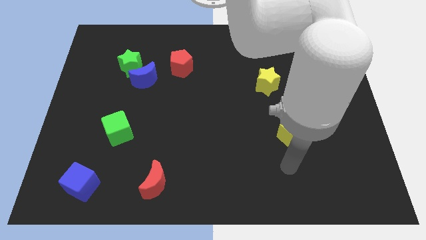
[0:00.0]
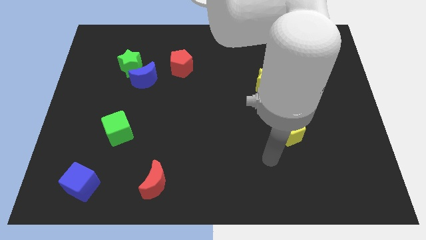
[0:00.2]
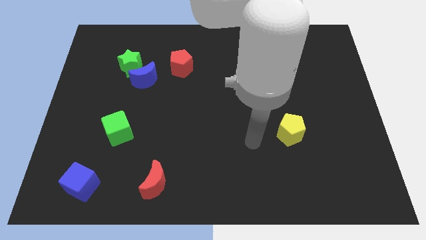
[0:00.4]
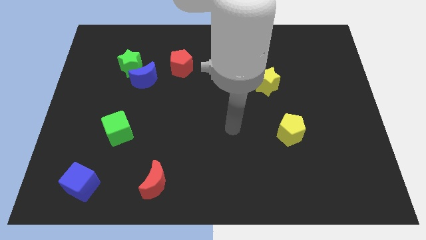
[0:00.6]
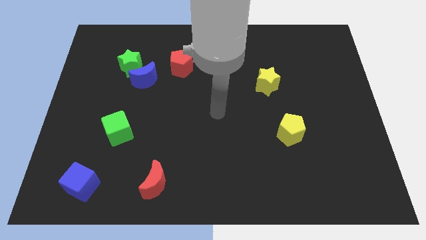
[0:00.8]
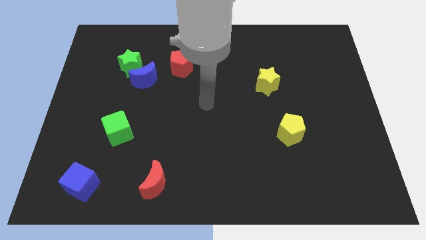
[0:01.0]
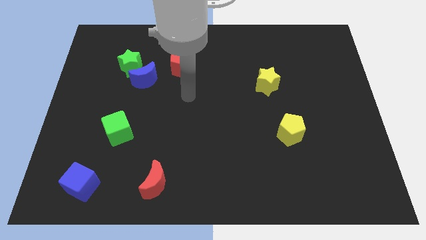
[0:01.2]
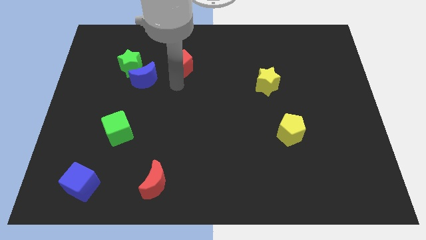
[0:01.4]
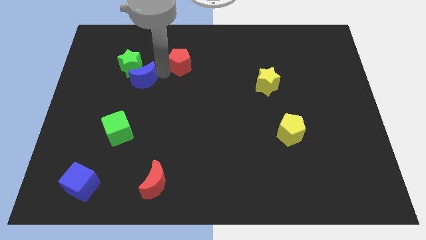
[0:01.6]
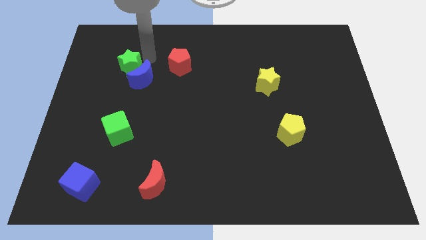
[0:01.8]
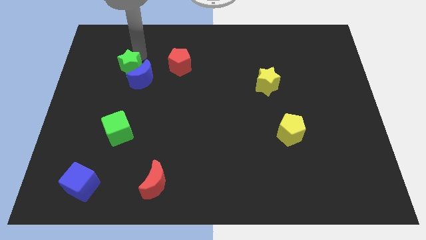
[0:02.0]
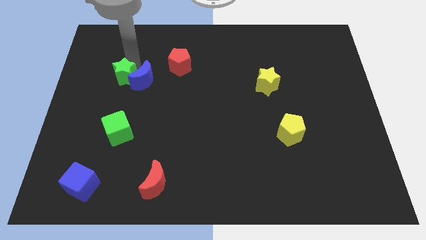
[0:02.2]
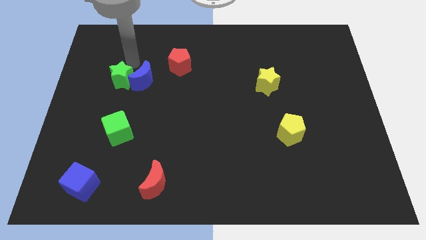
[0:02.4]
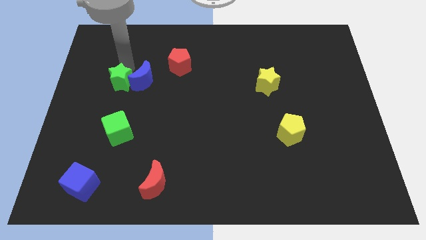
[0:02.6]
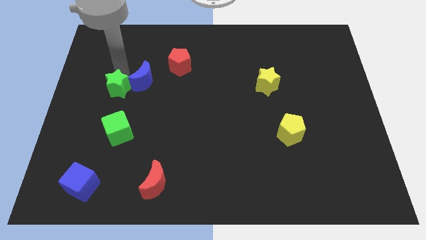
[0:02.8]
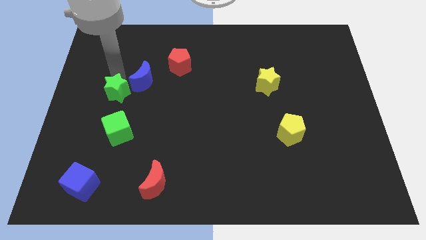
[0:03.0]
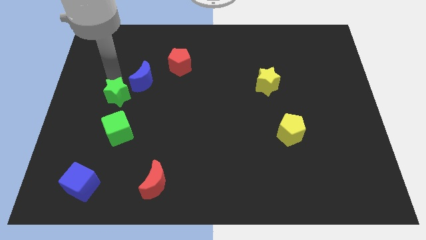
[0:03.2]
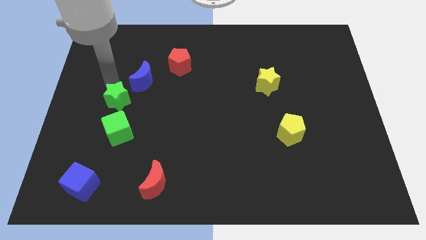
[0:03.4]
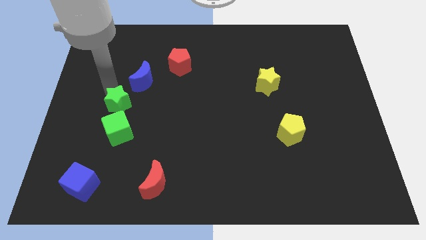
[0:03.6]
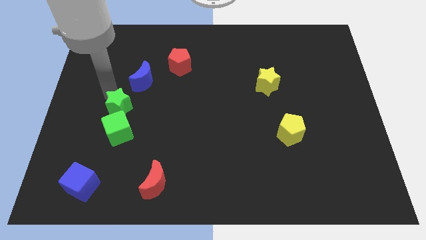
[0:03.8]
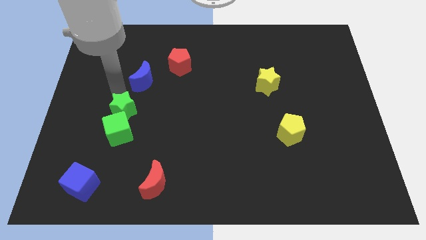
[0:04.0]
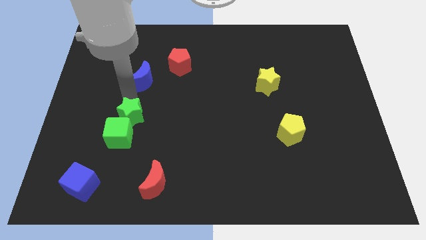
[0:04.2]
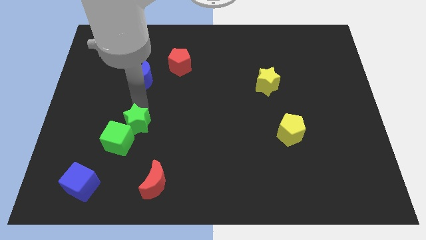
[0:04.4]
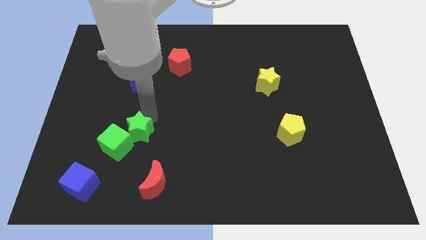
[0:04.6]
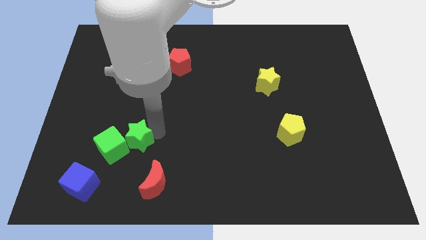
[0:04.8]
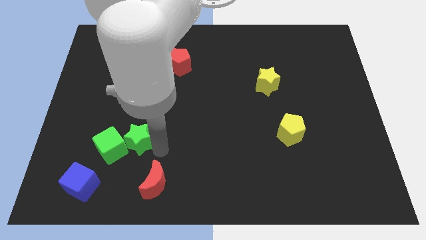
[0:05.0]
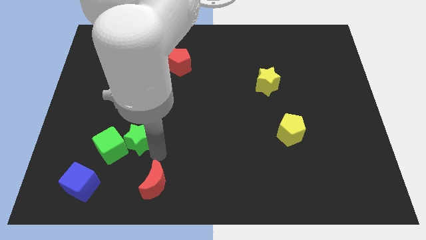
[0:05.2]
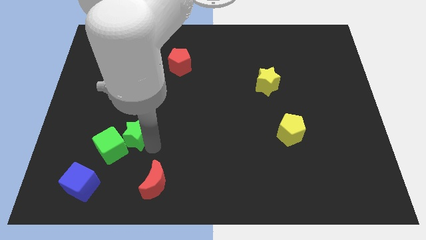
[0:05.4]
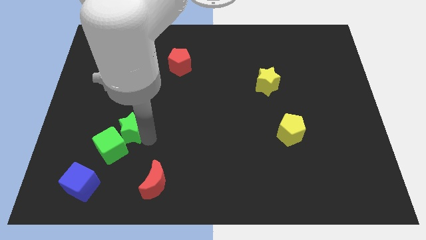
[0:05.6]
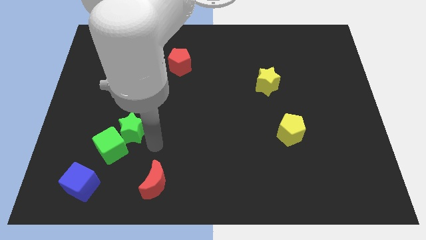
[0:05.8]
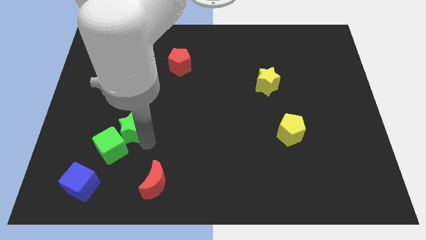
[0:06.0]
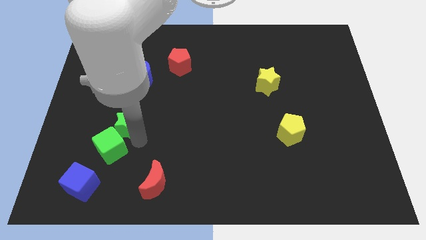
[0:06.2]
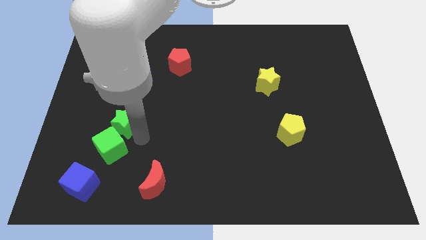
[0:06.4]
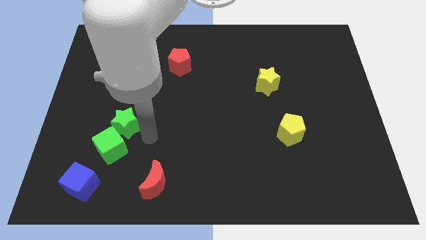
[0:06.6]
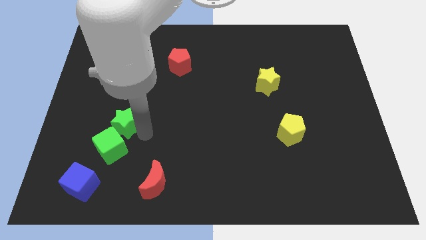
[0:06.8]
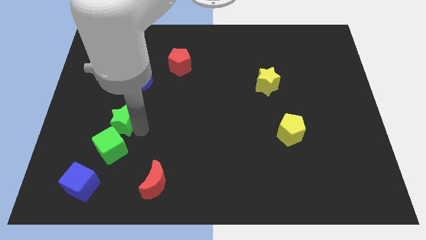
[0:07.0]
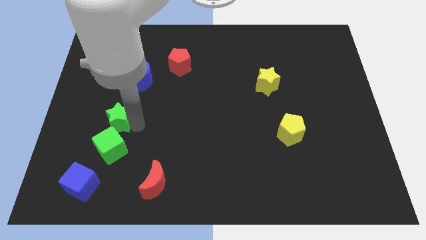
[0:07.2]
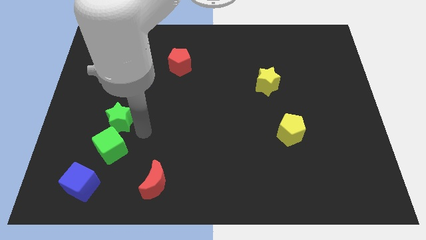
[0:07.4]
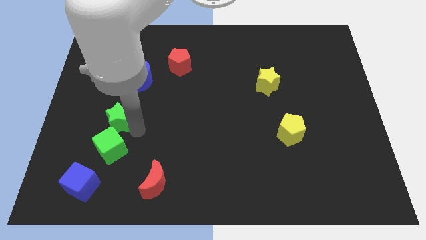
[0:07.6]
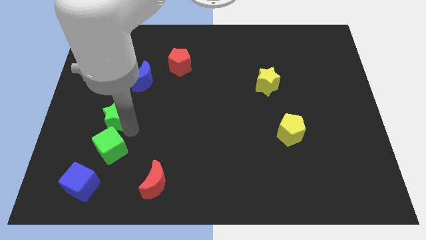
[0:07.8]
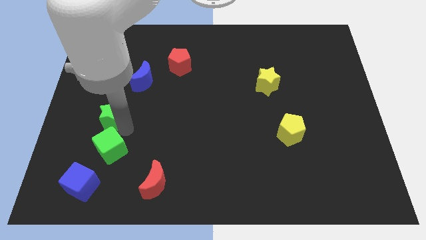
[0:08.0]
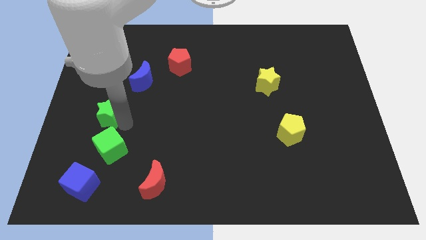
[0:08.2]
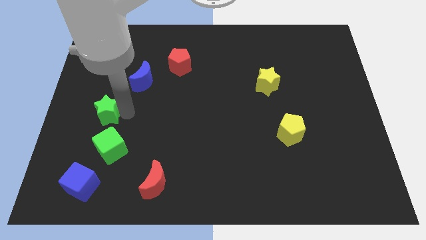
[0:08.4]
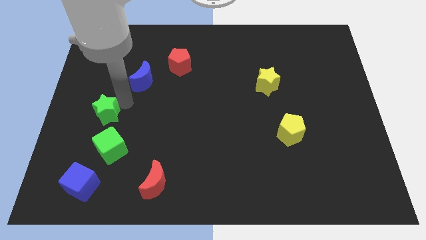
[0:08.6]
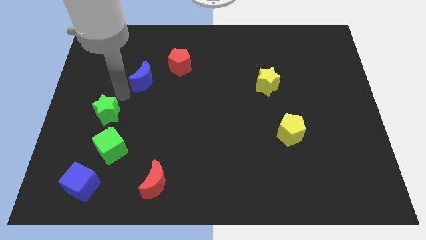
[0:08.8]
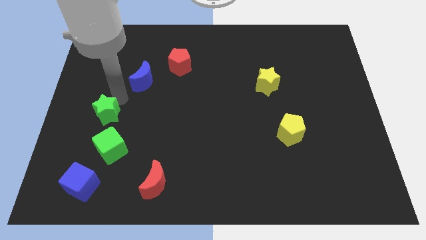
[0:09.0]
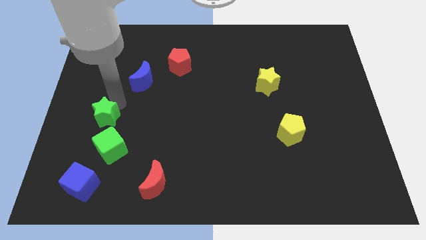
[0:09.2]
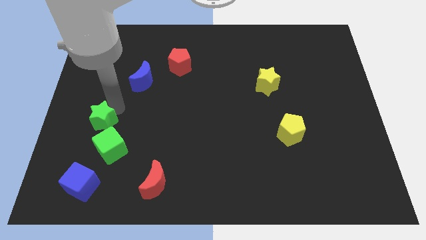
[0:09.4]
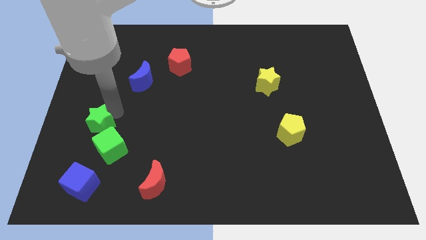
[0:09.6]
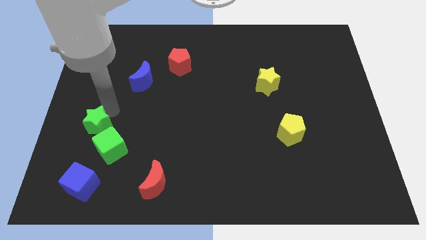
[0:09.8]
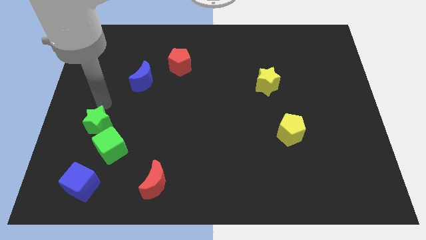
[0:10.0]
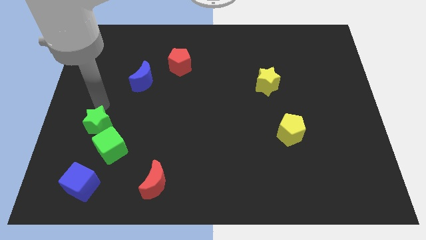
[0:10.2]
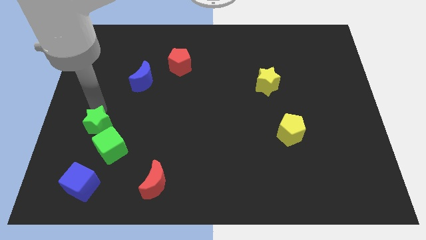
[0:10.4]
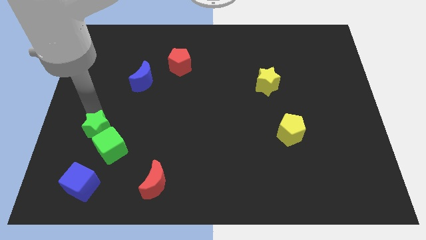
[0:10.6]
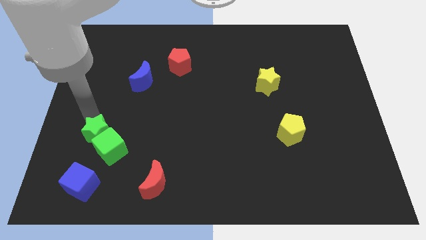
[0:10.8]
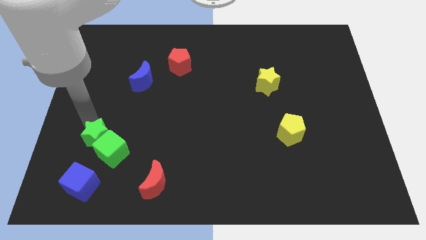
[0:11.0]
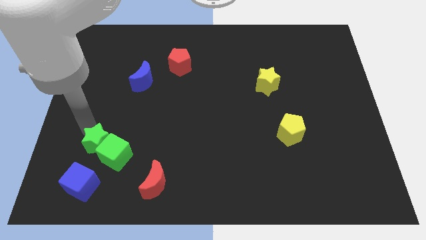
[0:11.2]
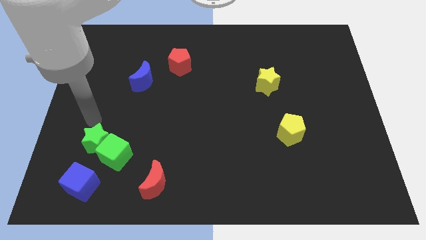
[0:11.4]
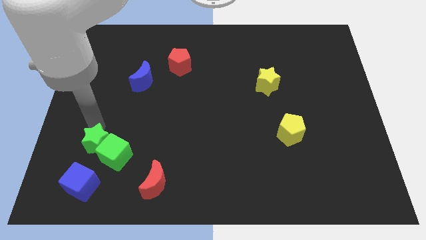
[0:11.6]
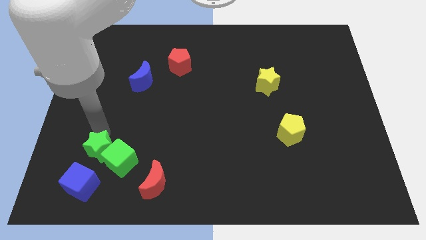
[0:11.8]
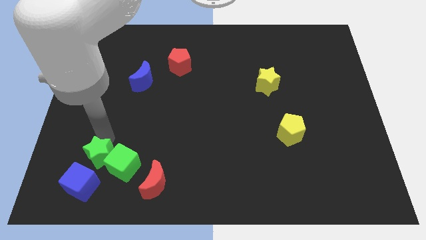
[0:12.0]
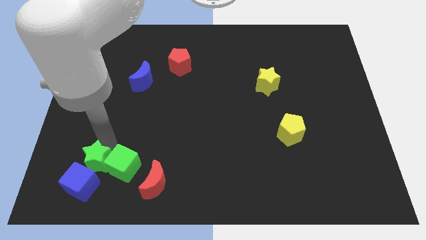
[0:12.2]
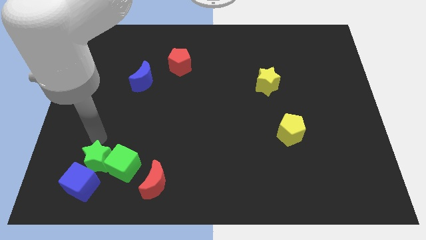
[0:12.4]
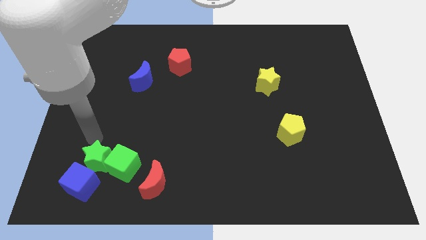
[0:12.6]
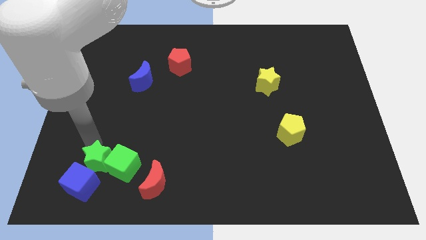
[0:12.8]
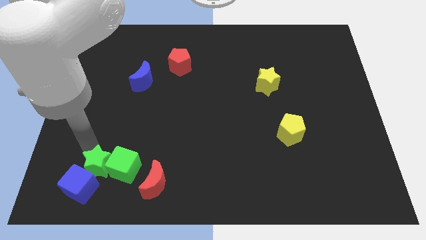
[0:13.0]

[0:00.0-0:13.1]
put the green star to the left side of the red moon

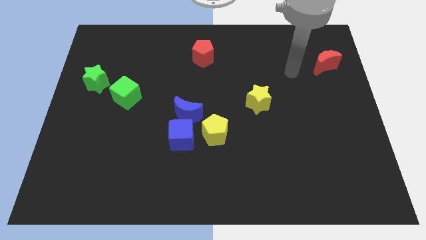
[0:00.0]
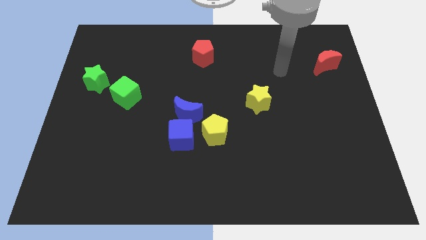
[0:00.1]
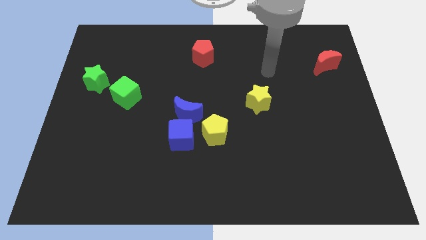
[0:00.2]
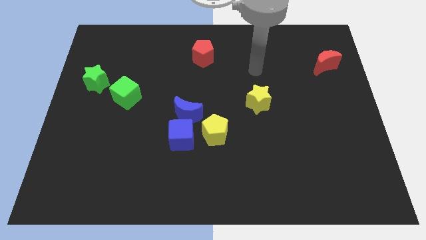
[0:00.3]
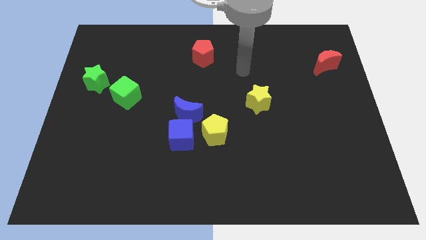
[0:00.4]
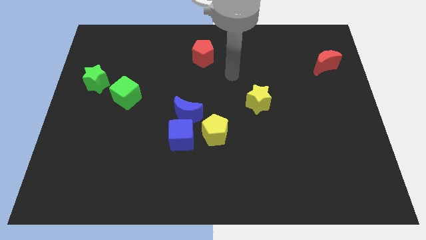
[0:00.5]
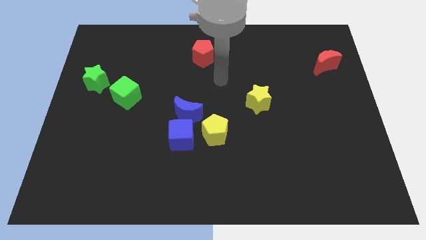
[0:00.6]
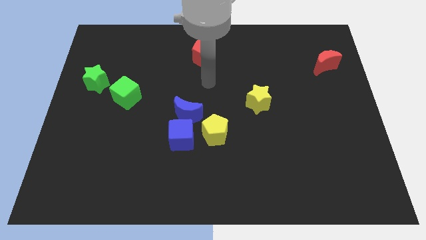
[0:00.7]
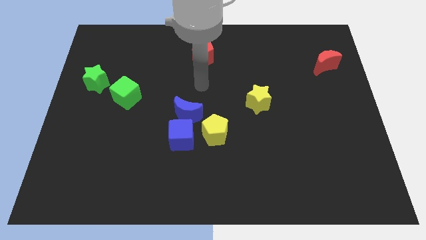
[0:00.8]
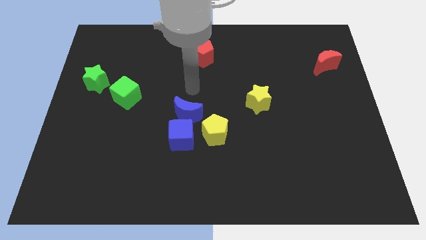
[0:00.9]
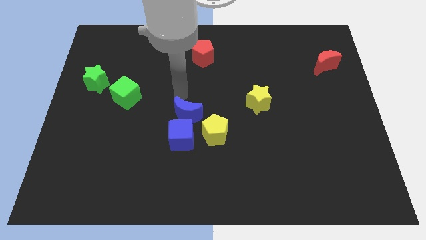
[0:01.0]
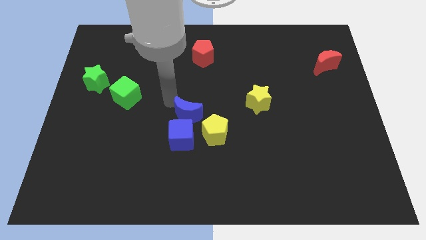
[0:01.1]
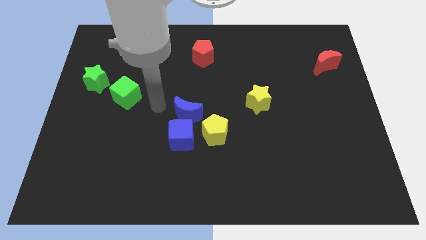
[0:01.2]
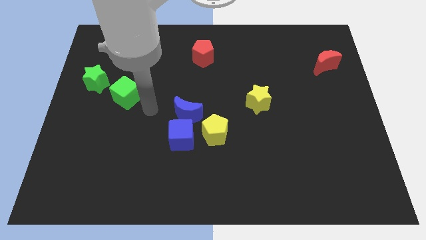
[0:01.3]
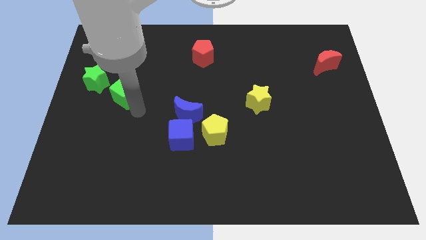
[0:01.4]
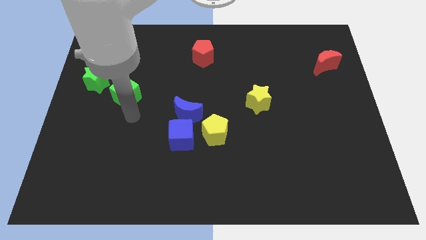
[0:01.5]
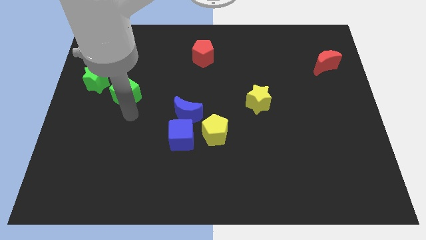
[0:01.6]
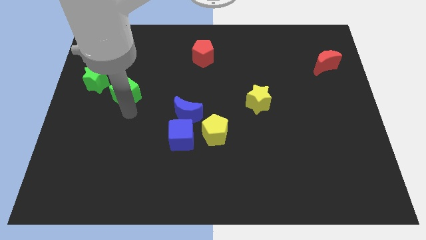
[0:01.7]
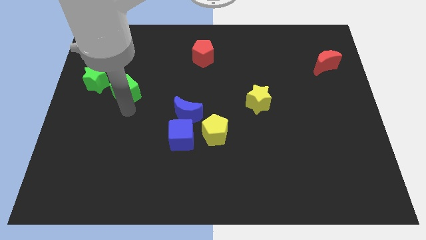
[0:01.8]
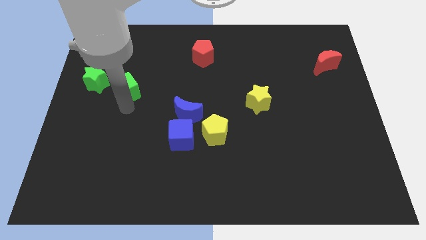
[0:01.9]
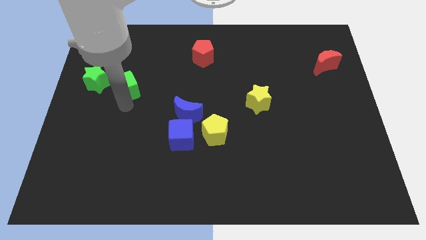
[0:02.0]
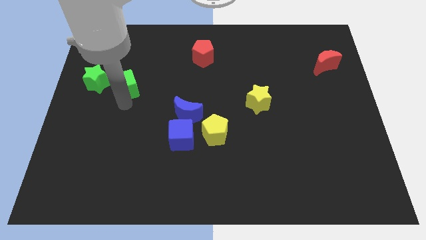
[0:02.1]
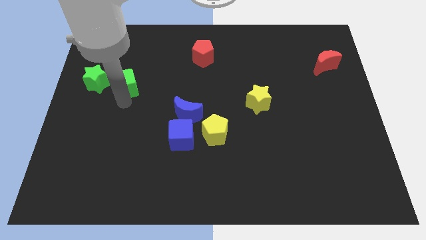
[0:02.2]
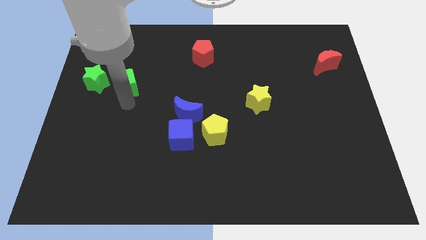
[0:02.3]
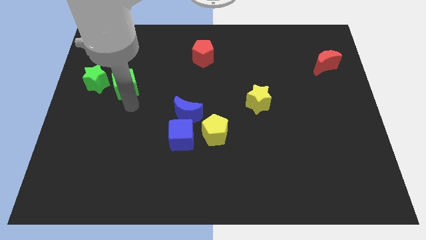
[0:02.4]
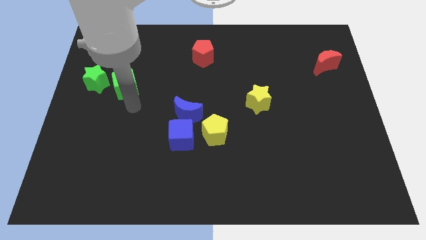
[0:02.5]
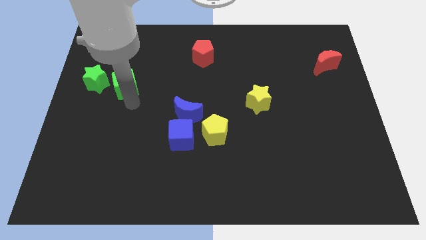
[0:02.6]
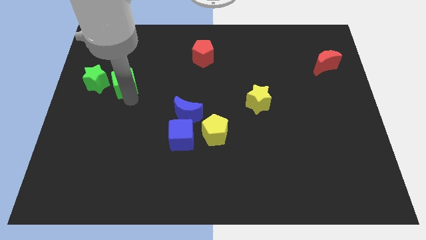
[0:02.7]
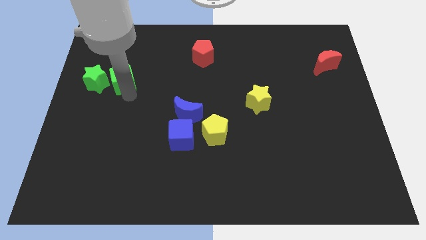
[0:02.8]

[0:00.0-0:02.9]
put the green cube to the top right of the green star
